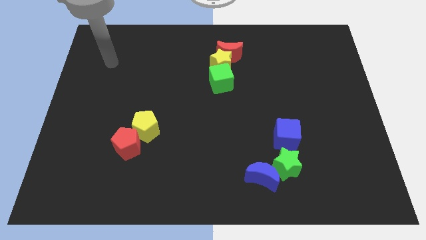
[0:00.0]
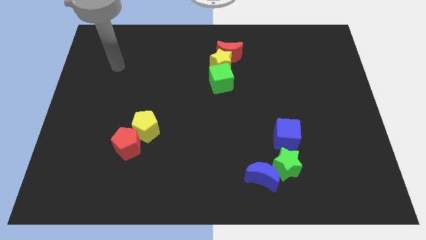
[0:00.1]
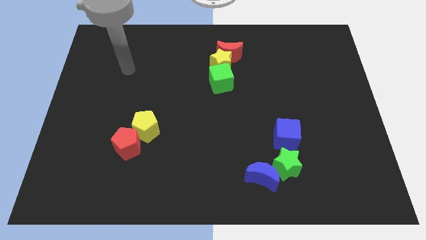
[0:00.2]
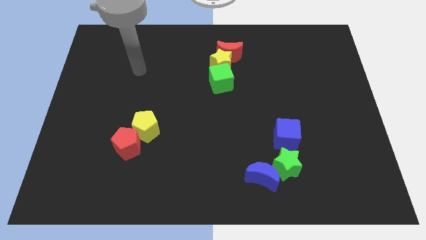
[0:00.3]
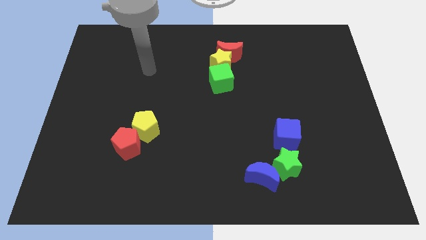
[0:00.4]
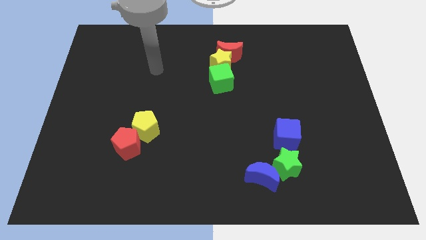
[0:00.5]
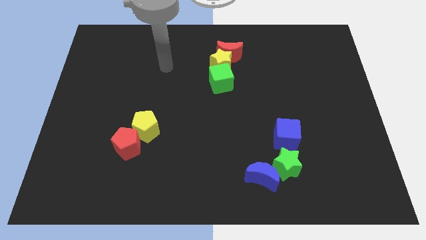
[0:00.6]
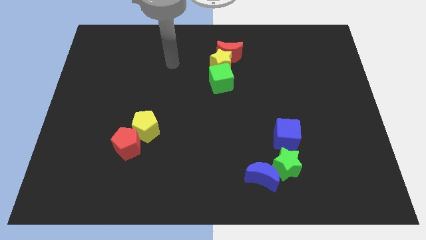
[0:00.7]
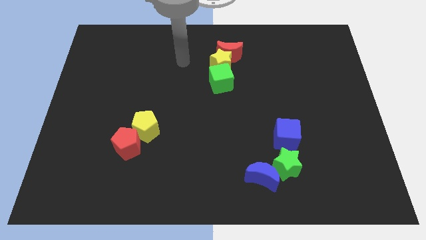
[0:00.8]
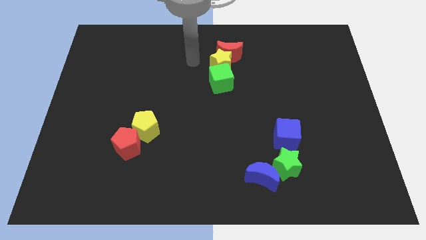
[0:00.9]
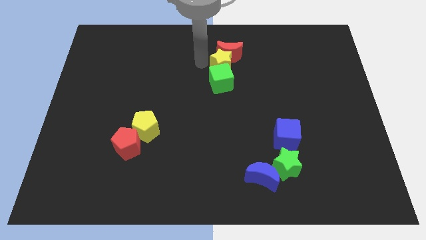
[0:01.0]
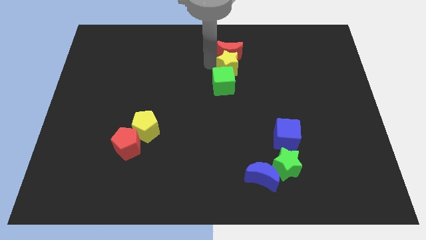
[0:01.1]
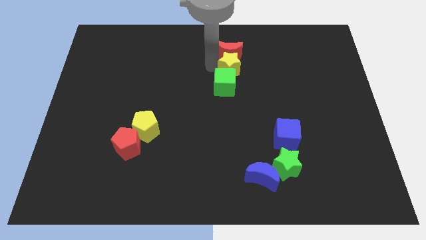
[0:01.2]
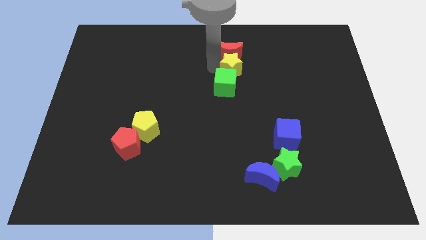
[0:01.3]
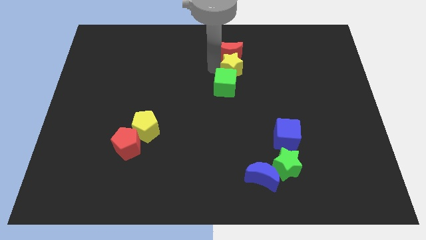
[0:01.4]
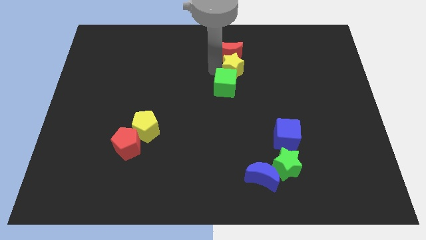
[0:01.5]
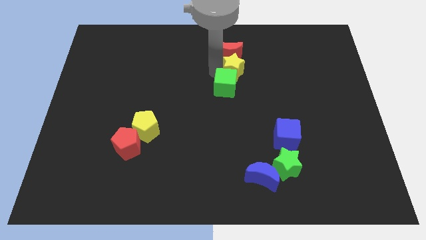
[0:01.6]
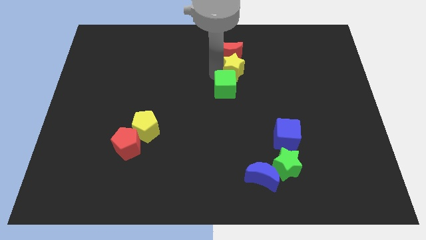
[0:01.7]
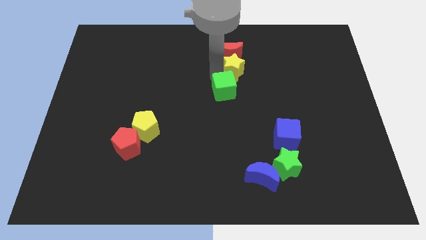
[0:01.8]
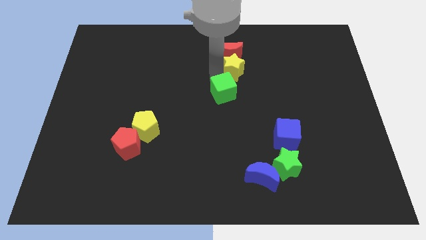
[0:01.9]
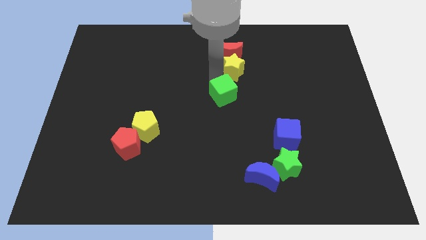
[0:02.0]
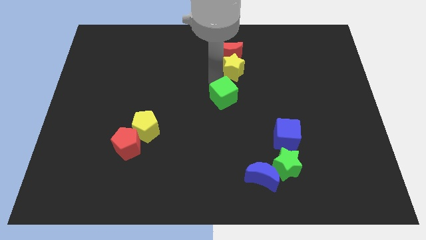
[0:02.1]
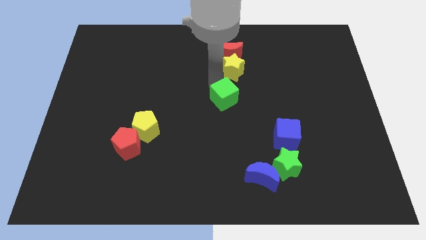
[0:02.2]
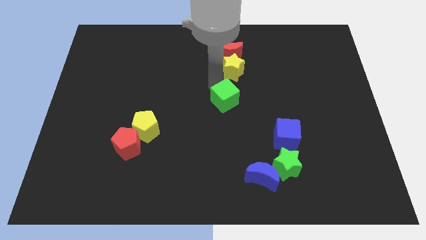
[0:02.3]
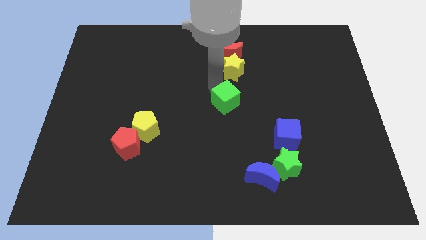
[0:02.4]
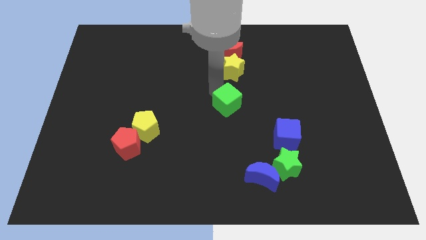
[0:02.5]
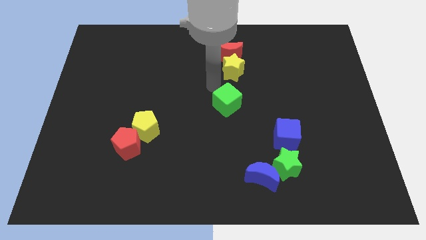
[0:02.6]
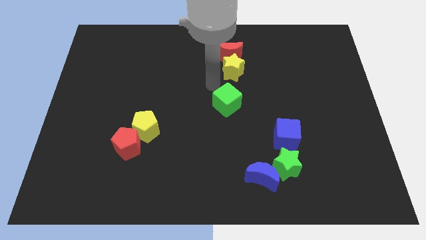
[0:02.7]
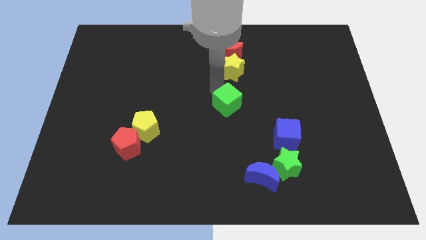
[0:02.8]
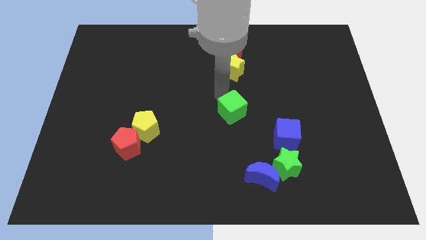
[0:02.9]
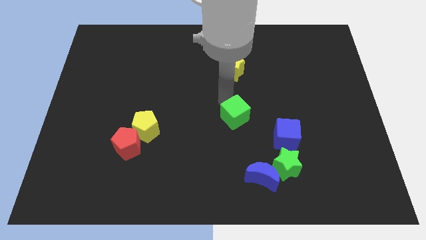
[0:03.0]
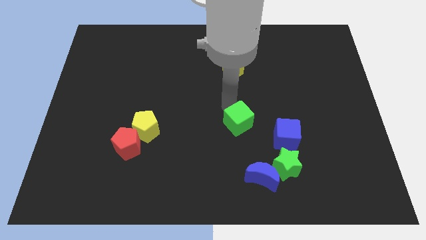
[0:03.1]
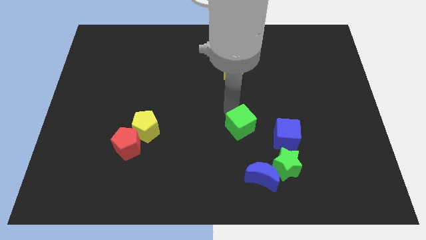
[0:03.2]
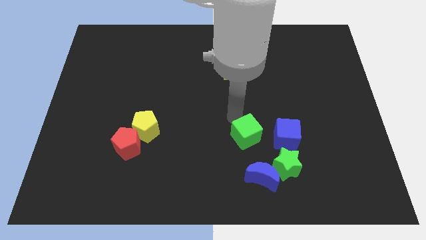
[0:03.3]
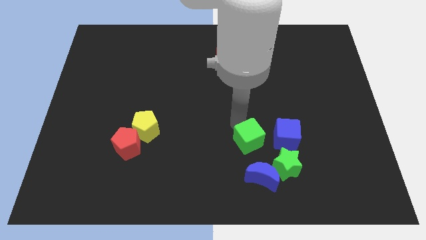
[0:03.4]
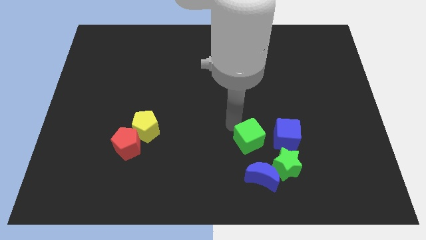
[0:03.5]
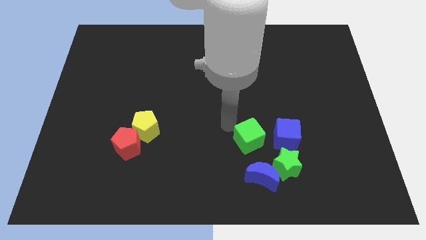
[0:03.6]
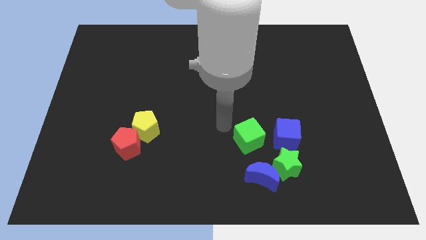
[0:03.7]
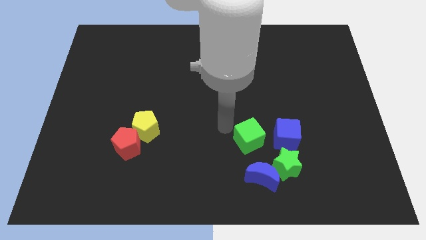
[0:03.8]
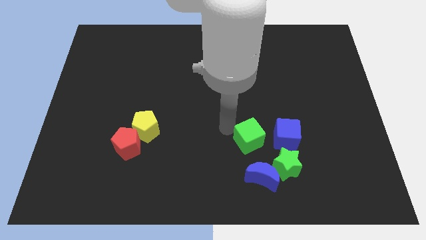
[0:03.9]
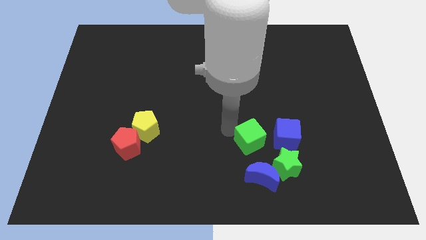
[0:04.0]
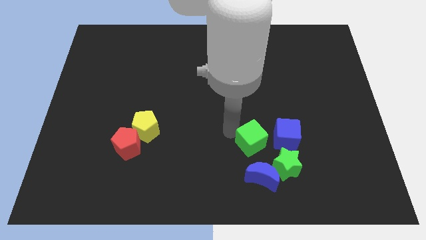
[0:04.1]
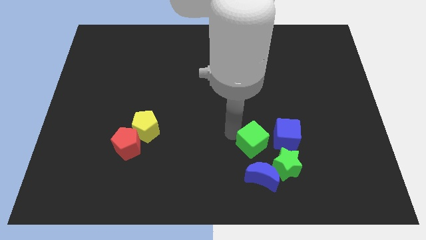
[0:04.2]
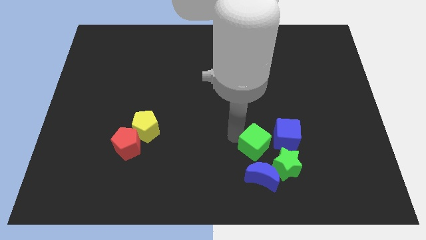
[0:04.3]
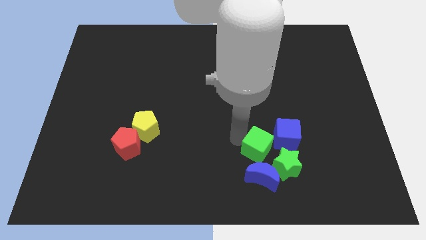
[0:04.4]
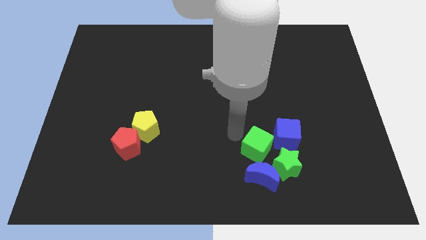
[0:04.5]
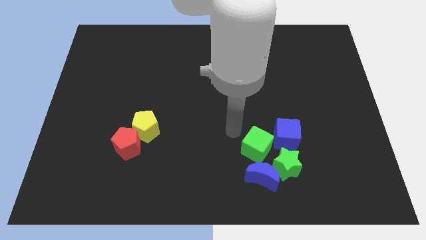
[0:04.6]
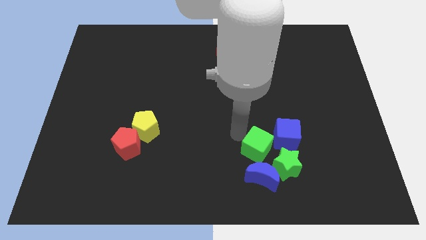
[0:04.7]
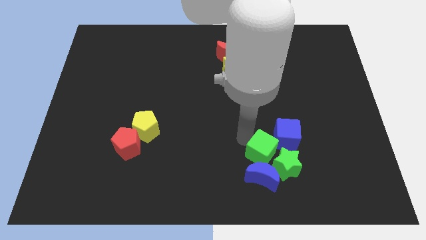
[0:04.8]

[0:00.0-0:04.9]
move the green cube towards the green star

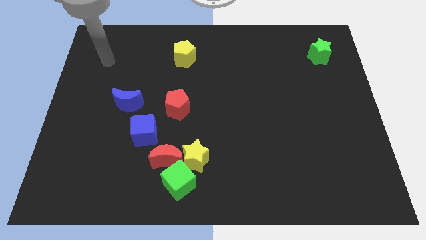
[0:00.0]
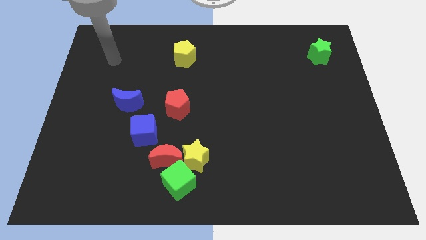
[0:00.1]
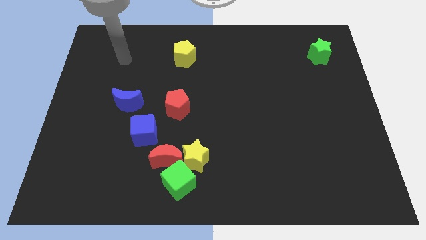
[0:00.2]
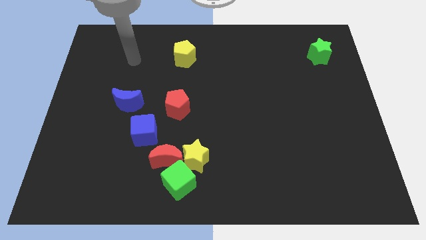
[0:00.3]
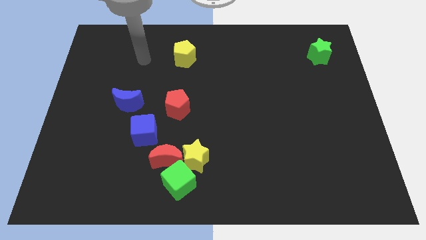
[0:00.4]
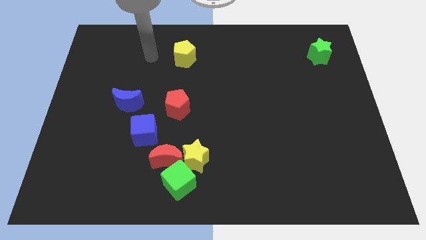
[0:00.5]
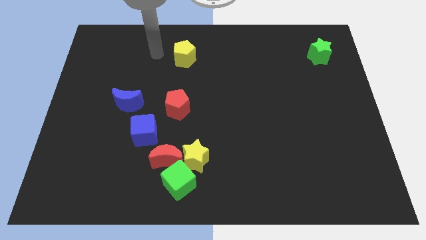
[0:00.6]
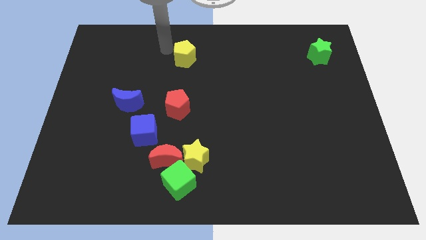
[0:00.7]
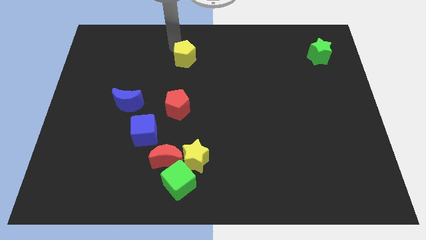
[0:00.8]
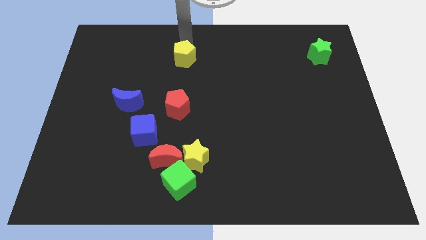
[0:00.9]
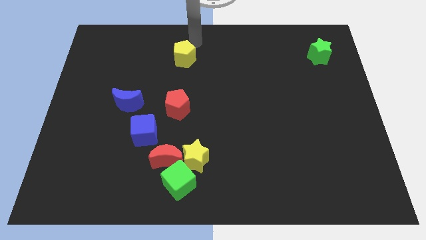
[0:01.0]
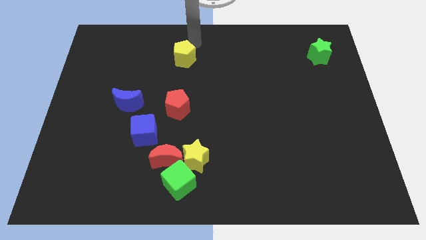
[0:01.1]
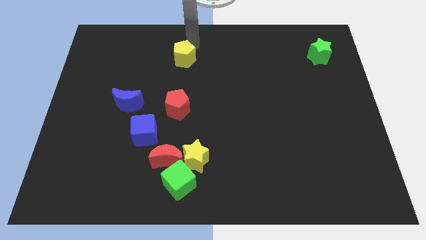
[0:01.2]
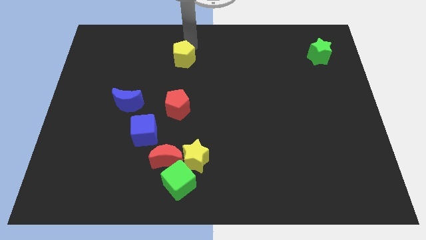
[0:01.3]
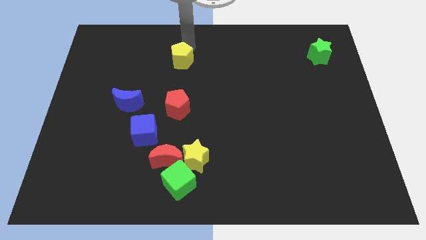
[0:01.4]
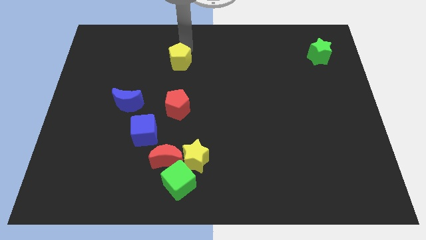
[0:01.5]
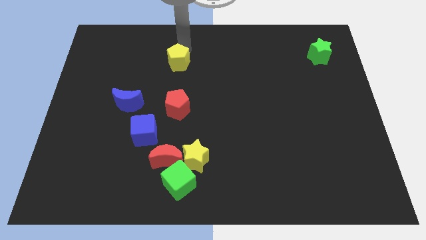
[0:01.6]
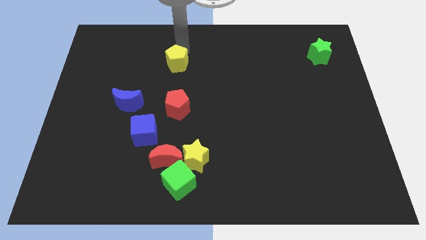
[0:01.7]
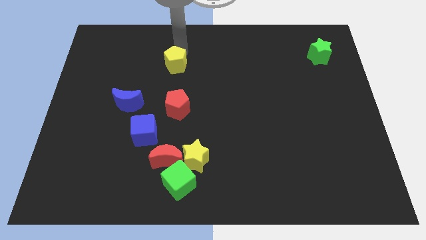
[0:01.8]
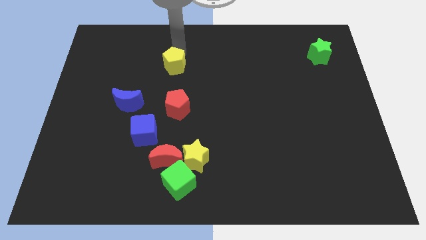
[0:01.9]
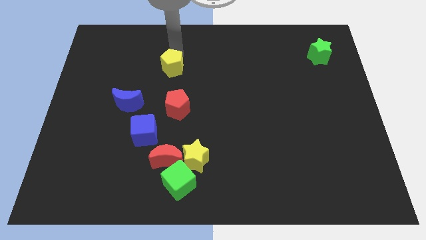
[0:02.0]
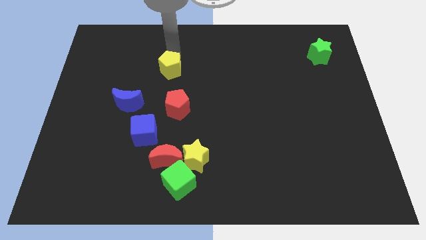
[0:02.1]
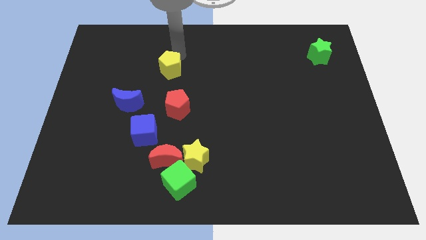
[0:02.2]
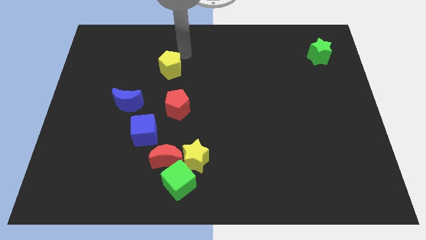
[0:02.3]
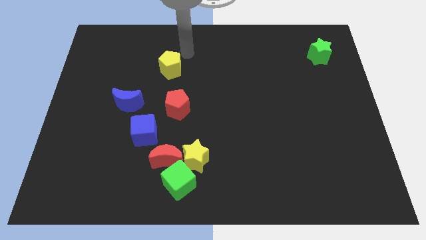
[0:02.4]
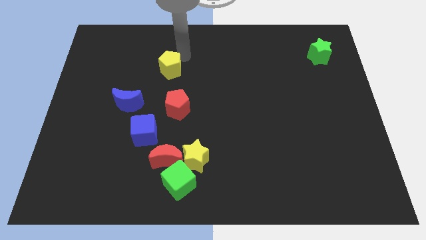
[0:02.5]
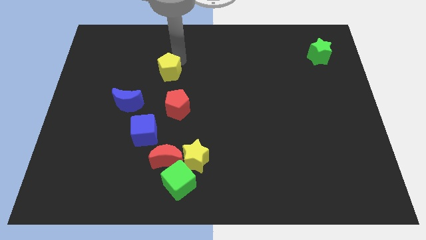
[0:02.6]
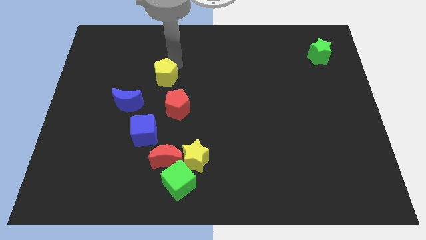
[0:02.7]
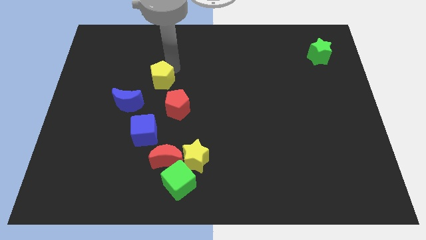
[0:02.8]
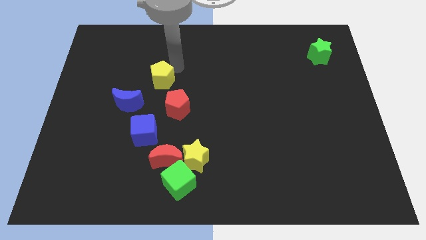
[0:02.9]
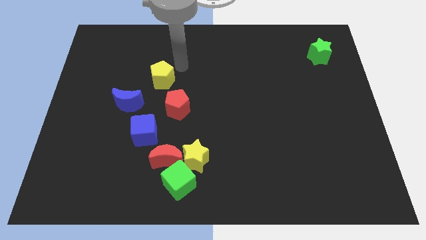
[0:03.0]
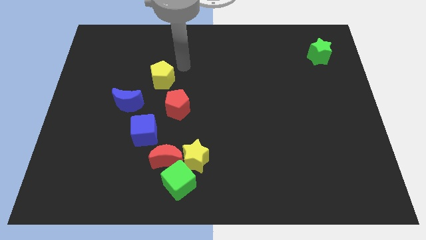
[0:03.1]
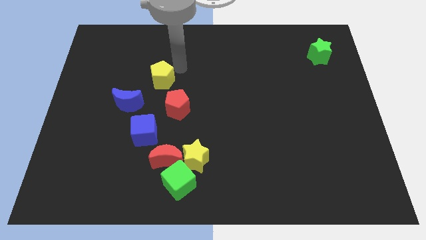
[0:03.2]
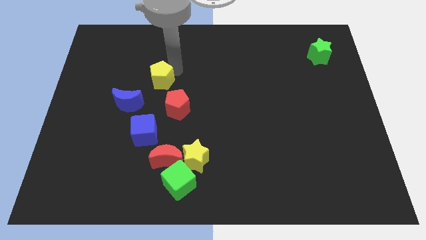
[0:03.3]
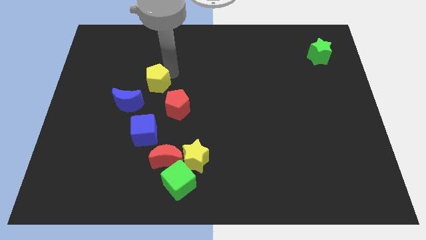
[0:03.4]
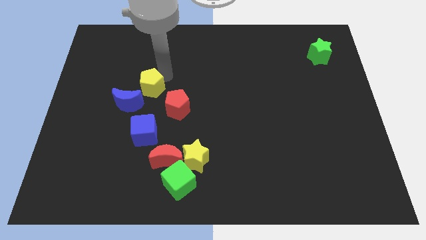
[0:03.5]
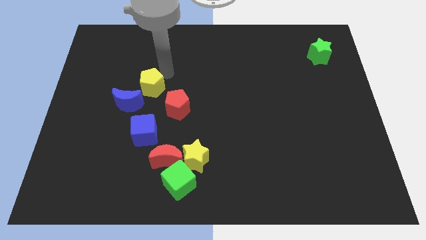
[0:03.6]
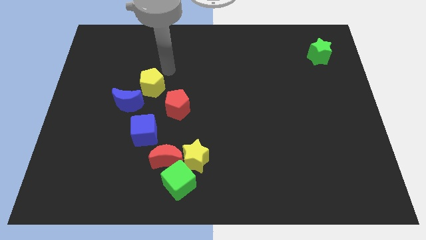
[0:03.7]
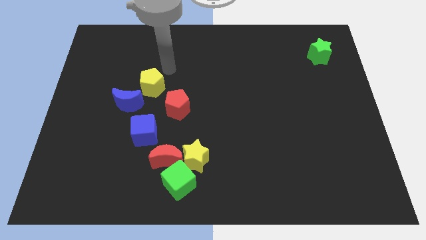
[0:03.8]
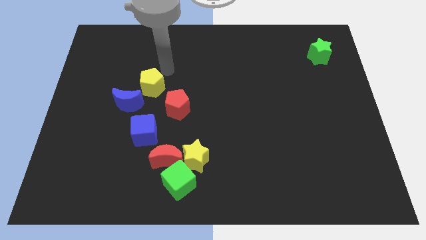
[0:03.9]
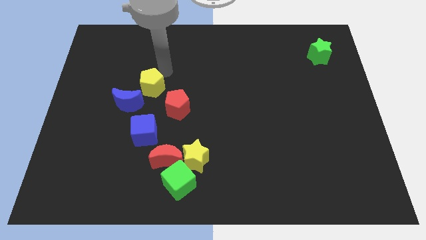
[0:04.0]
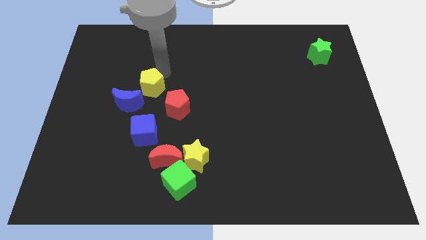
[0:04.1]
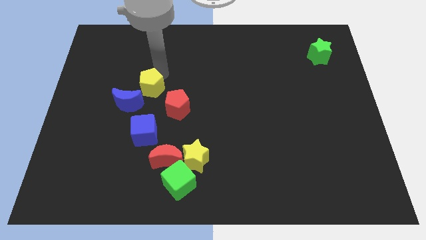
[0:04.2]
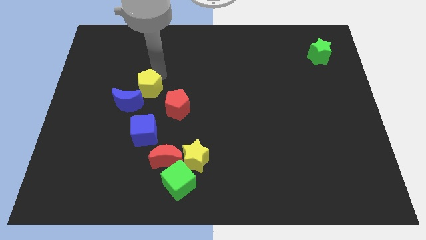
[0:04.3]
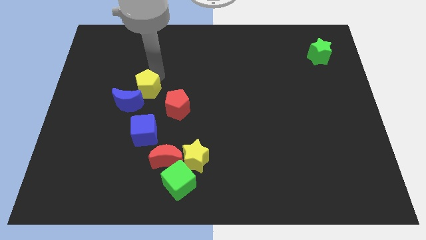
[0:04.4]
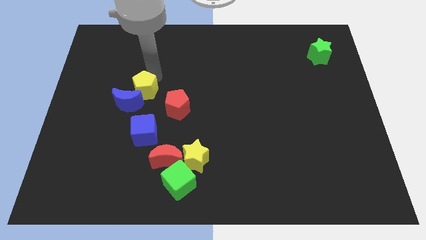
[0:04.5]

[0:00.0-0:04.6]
put the yellow pentagon next to the blue moon
